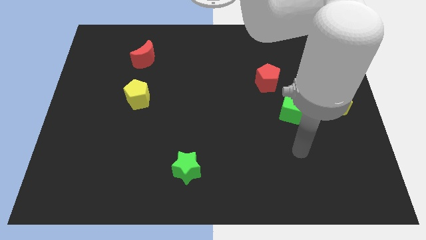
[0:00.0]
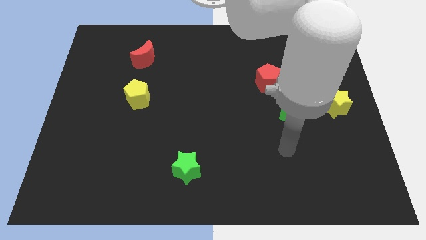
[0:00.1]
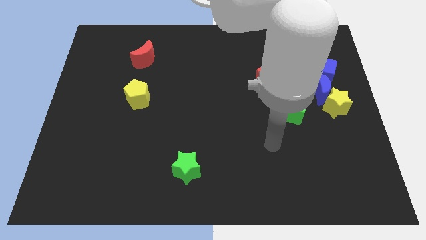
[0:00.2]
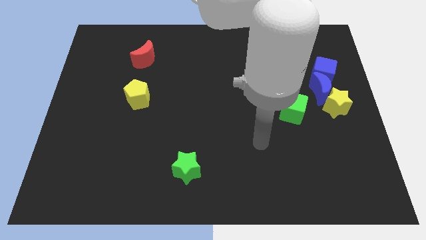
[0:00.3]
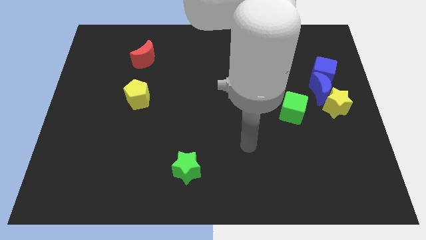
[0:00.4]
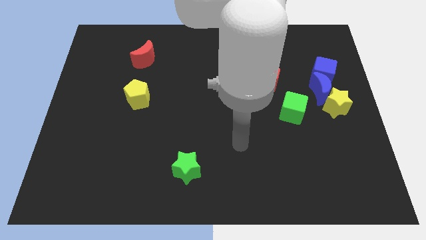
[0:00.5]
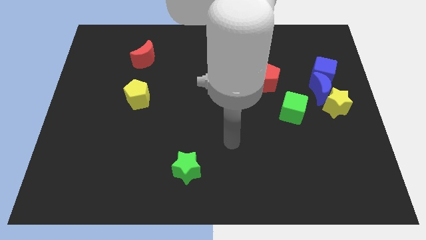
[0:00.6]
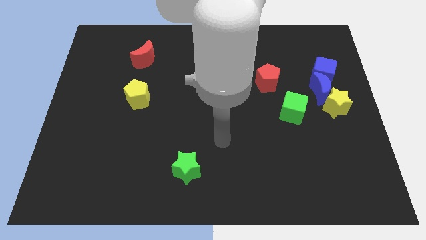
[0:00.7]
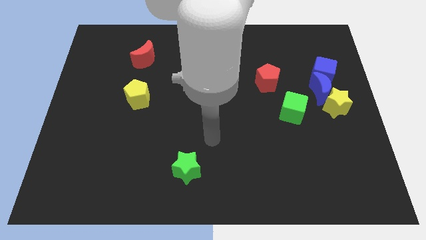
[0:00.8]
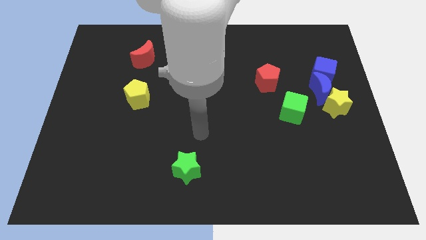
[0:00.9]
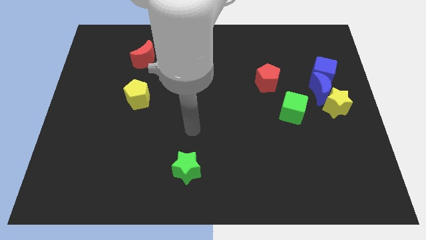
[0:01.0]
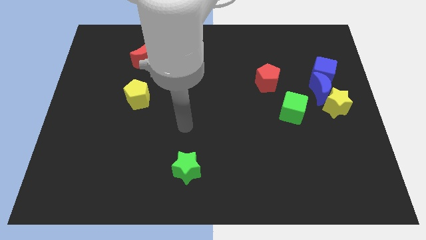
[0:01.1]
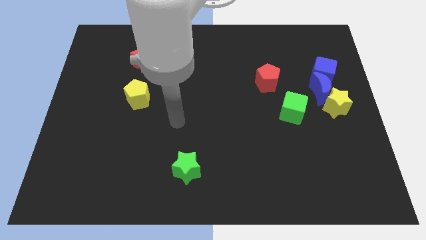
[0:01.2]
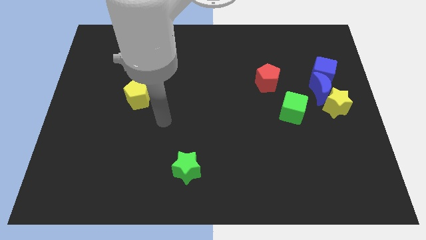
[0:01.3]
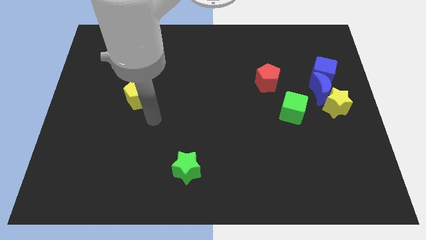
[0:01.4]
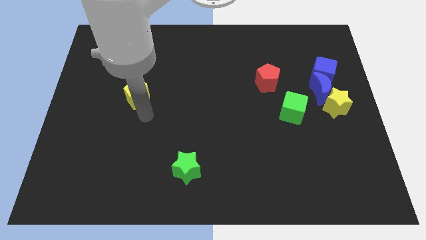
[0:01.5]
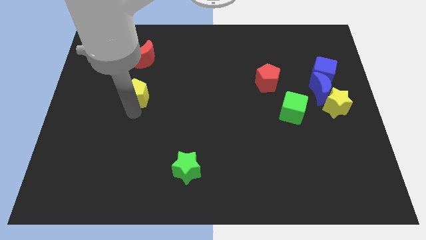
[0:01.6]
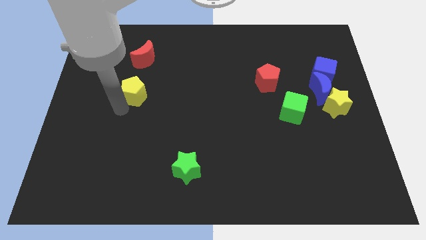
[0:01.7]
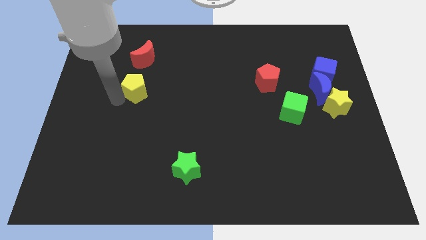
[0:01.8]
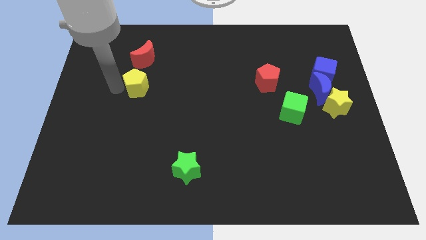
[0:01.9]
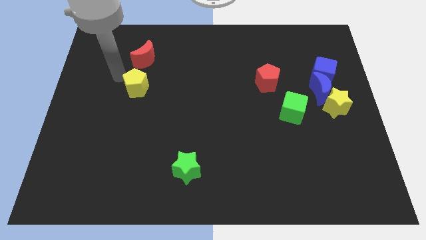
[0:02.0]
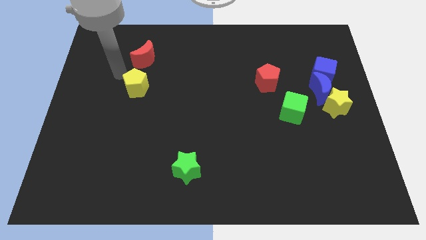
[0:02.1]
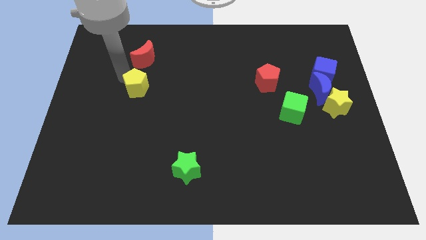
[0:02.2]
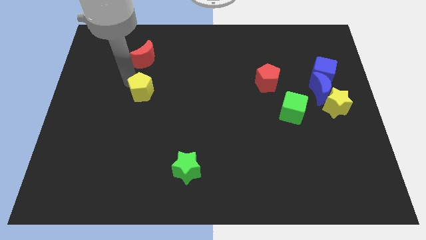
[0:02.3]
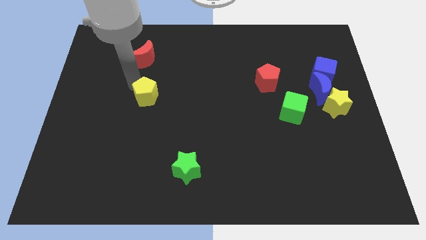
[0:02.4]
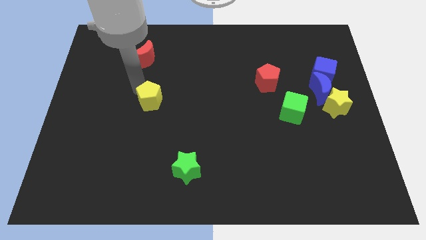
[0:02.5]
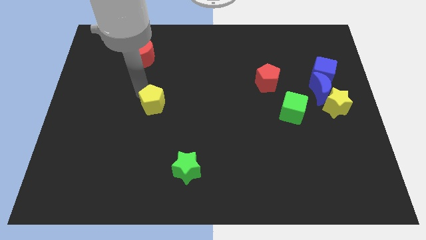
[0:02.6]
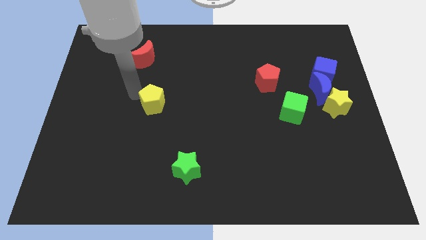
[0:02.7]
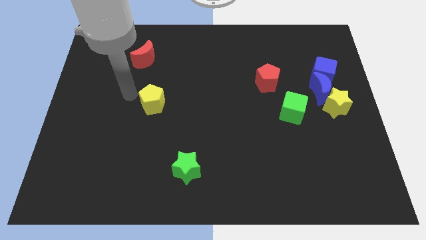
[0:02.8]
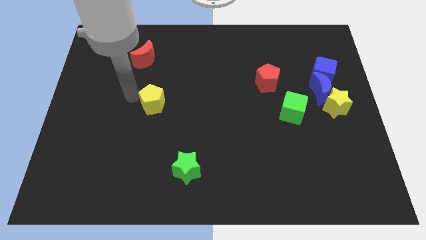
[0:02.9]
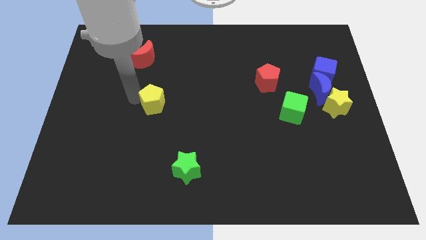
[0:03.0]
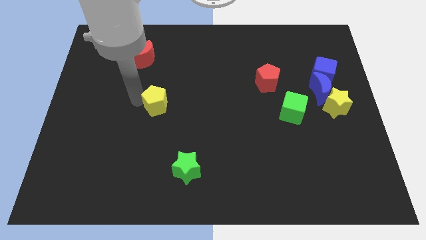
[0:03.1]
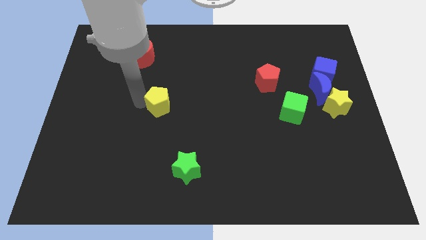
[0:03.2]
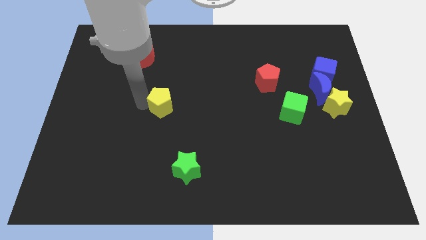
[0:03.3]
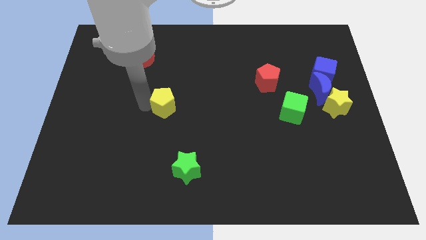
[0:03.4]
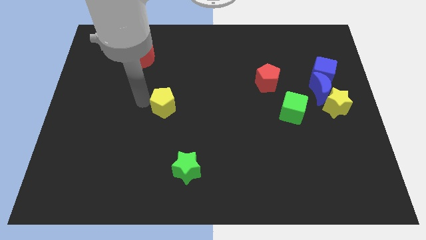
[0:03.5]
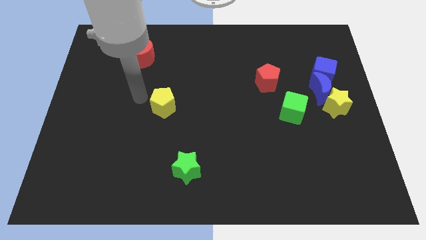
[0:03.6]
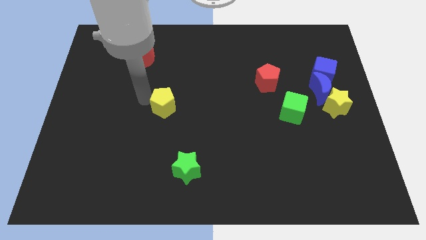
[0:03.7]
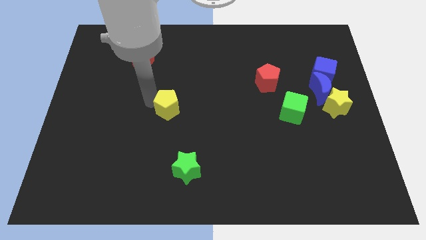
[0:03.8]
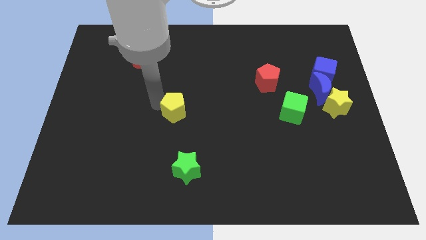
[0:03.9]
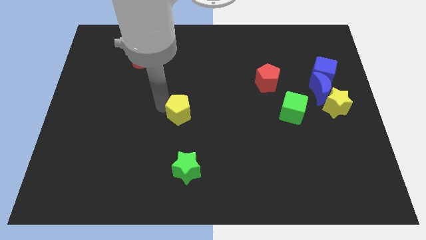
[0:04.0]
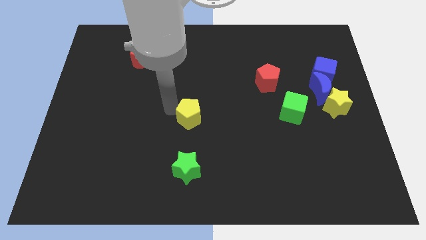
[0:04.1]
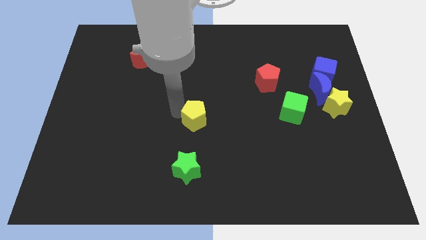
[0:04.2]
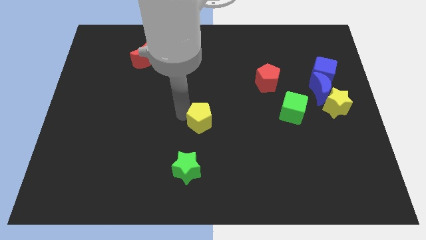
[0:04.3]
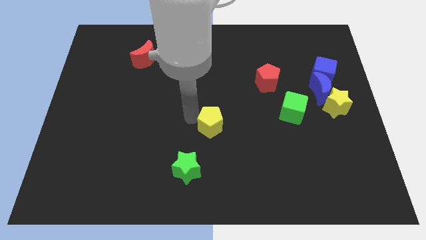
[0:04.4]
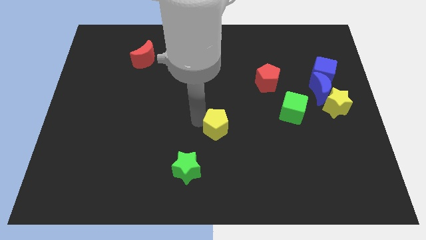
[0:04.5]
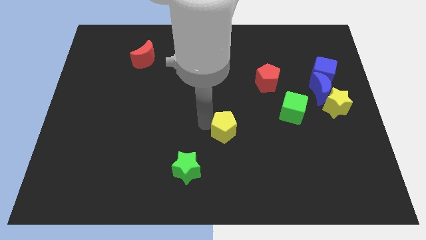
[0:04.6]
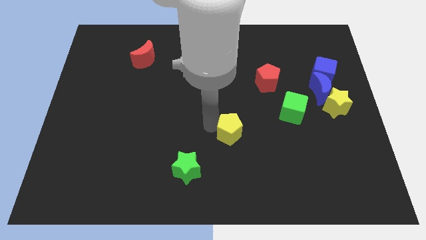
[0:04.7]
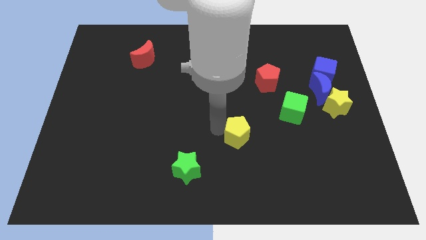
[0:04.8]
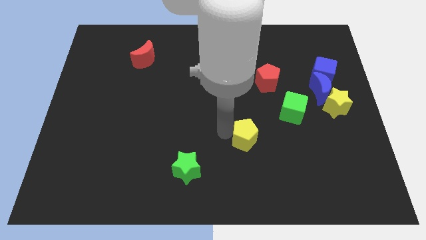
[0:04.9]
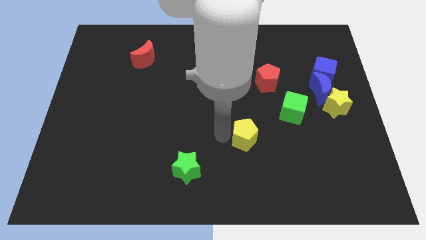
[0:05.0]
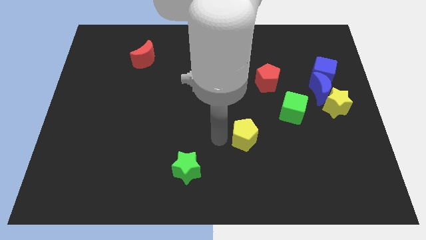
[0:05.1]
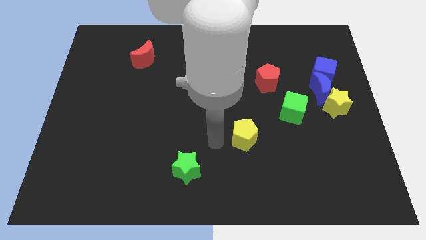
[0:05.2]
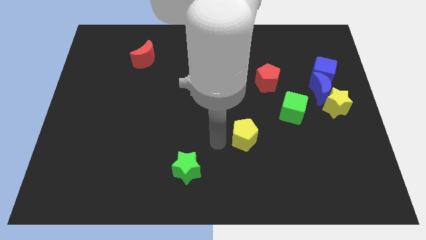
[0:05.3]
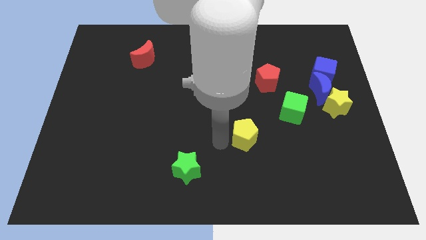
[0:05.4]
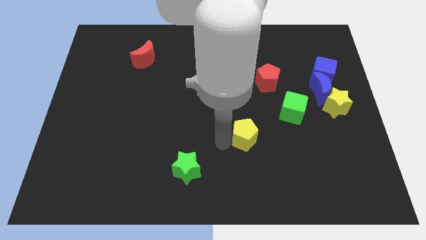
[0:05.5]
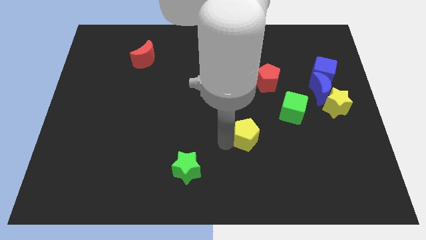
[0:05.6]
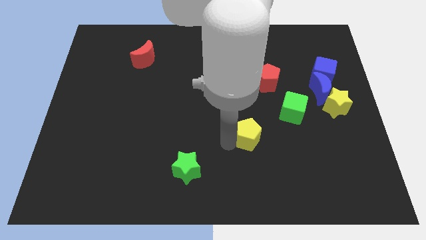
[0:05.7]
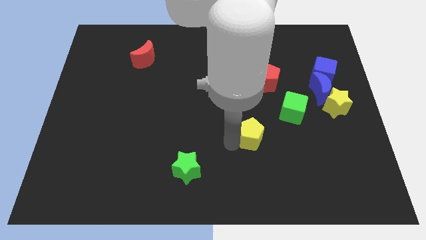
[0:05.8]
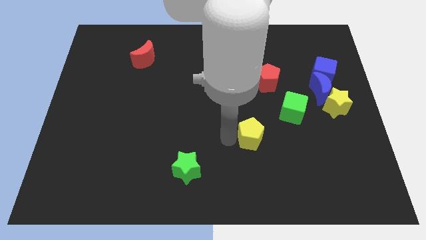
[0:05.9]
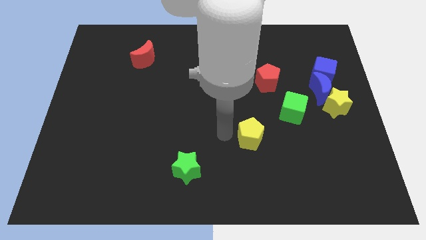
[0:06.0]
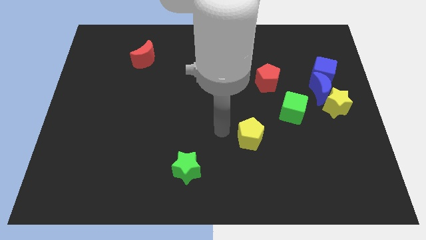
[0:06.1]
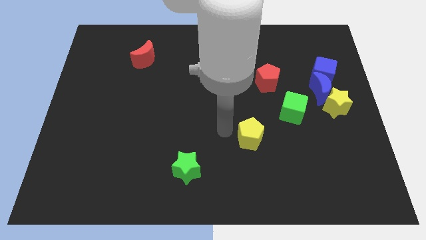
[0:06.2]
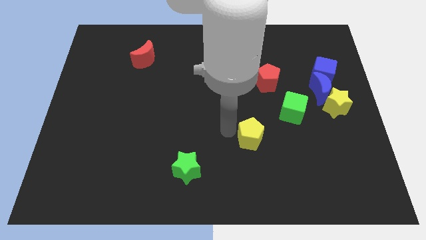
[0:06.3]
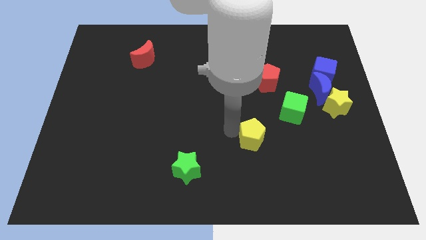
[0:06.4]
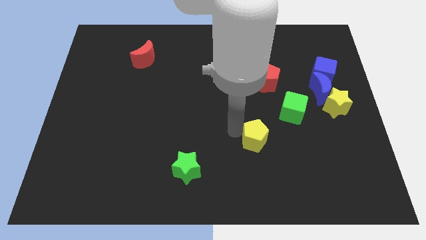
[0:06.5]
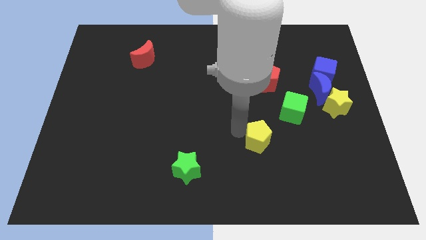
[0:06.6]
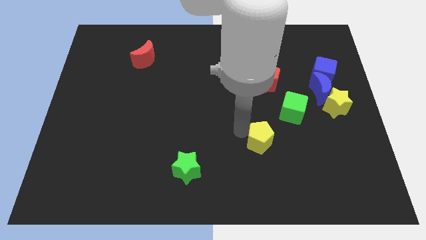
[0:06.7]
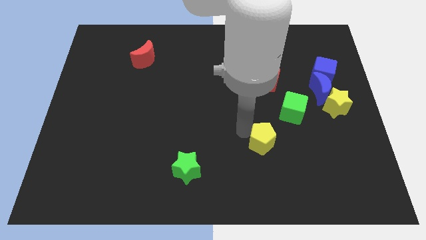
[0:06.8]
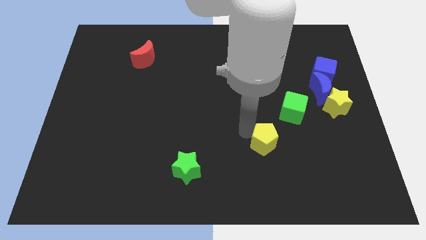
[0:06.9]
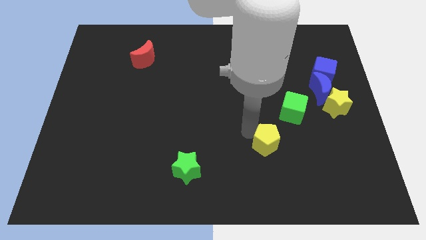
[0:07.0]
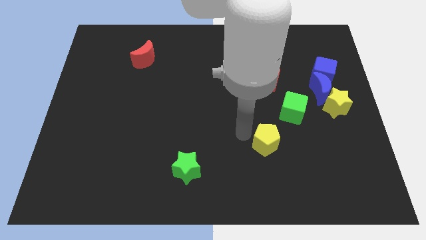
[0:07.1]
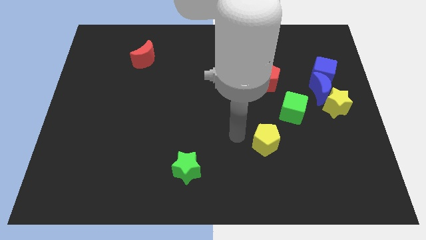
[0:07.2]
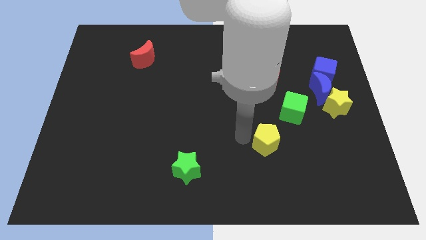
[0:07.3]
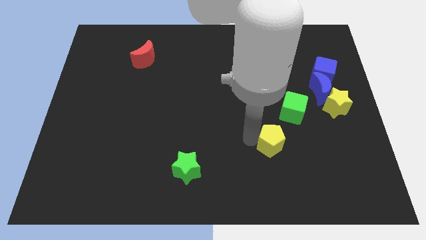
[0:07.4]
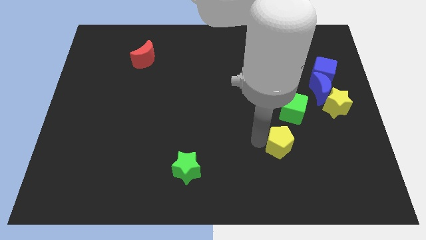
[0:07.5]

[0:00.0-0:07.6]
push the yellow pentagon to the bottom of the green cube
